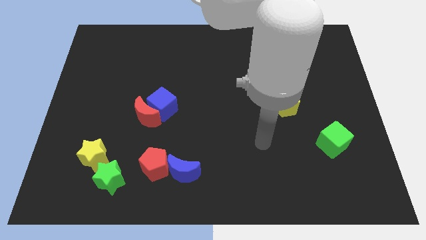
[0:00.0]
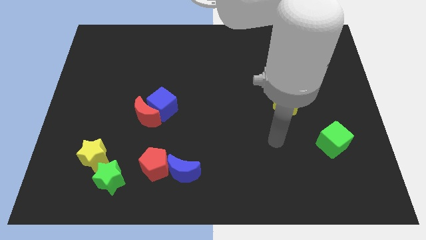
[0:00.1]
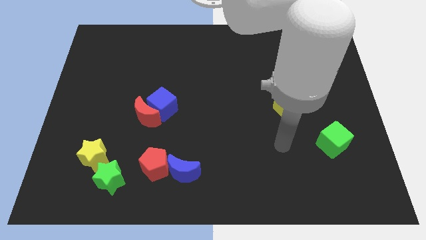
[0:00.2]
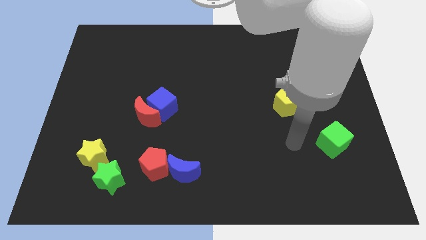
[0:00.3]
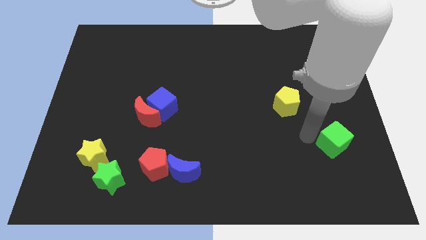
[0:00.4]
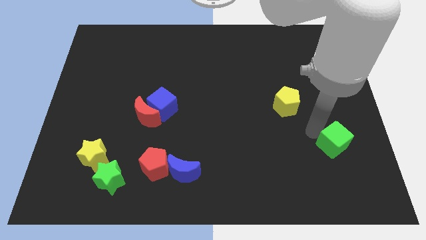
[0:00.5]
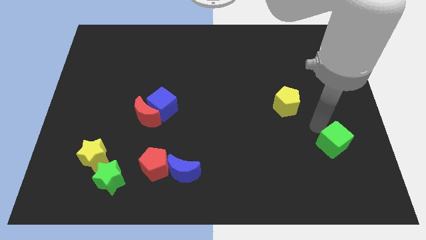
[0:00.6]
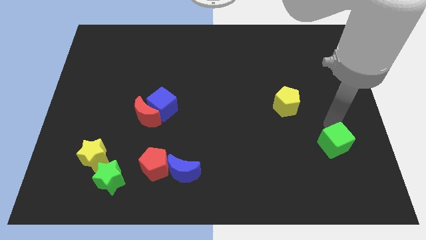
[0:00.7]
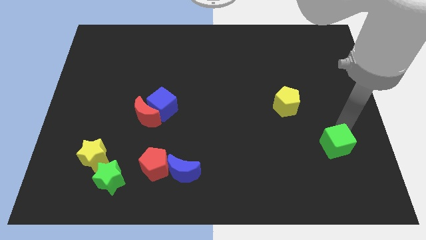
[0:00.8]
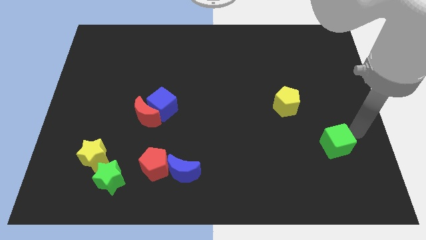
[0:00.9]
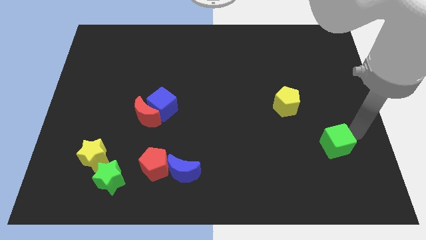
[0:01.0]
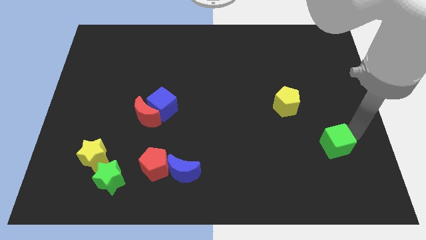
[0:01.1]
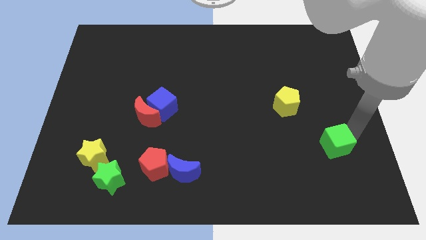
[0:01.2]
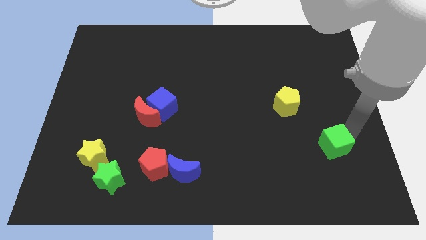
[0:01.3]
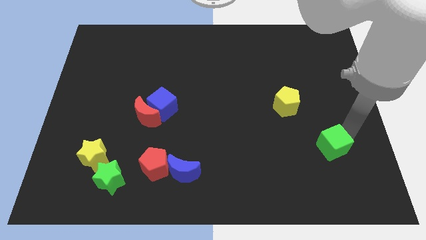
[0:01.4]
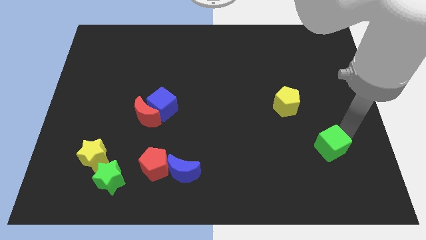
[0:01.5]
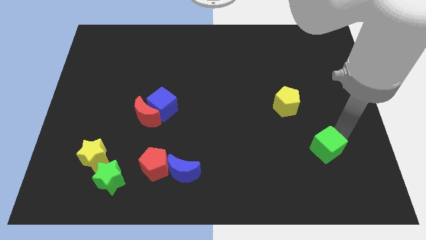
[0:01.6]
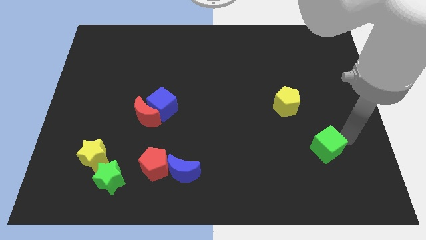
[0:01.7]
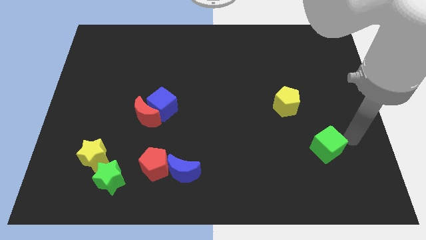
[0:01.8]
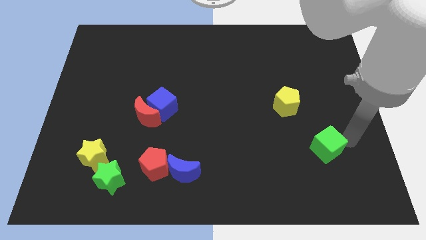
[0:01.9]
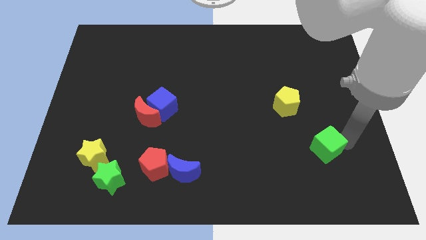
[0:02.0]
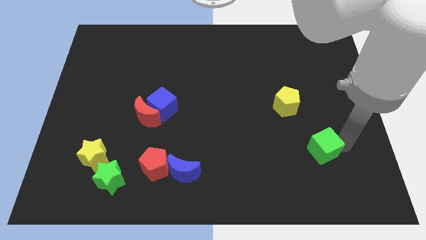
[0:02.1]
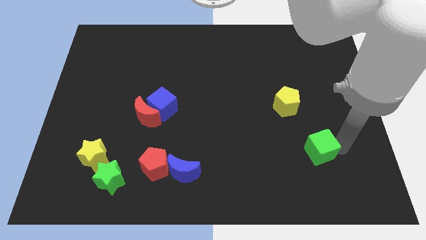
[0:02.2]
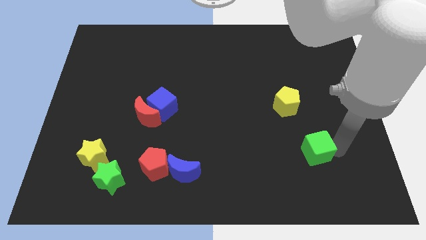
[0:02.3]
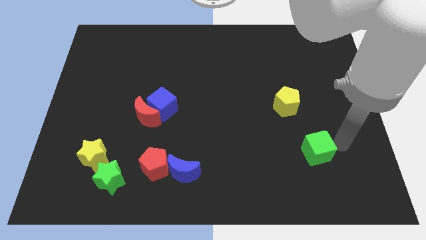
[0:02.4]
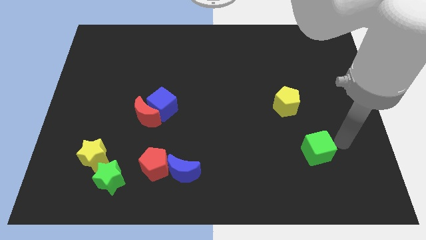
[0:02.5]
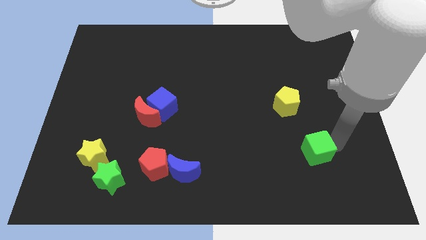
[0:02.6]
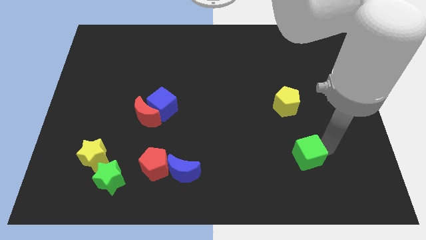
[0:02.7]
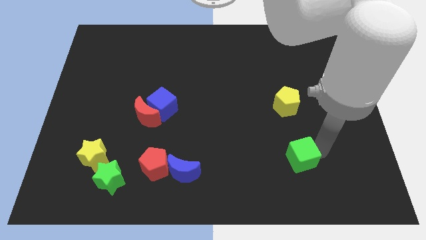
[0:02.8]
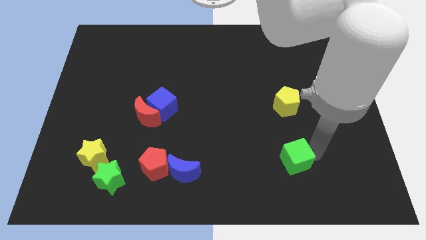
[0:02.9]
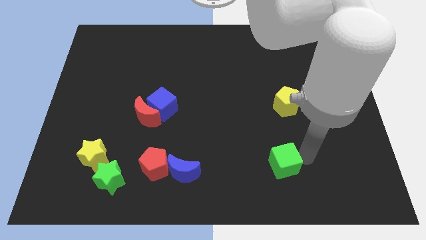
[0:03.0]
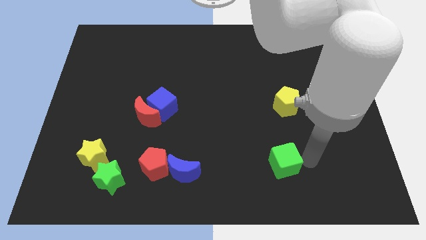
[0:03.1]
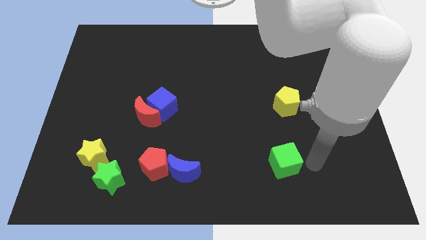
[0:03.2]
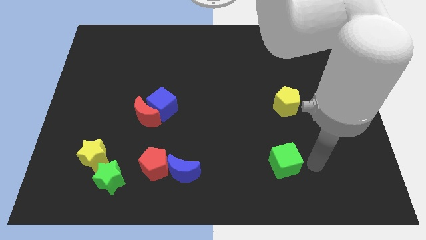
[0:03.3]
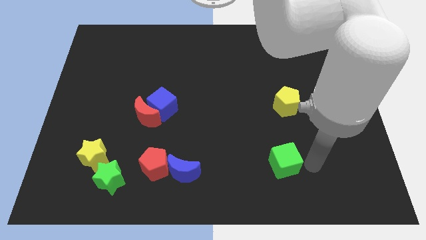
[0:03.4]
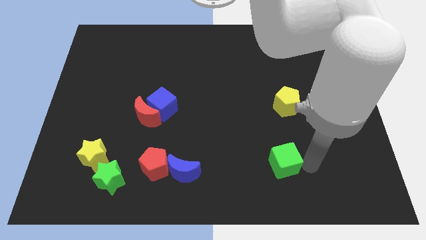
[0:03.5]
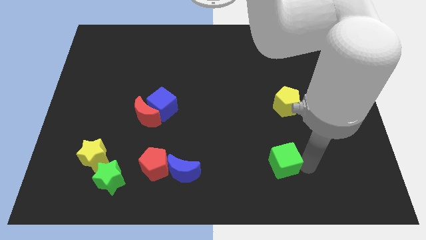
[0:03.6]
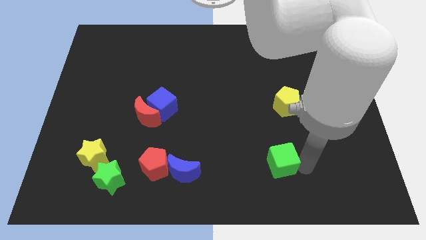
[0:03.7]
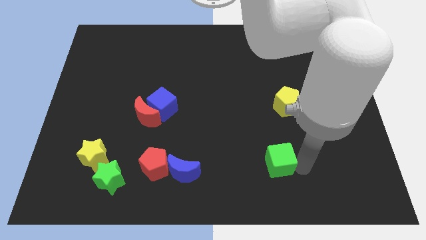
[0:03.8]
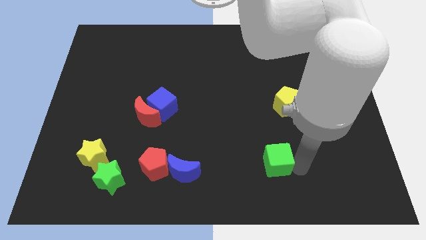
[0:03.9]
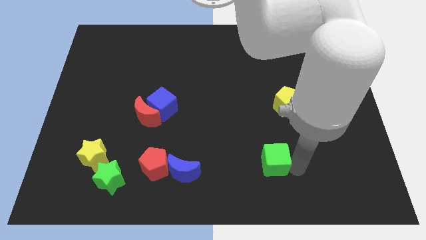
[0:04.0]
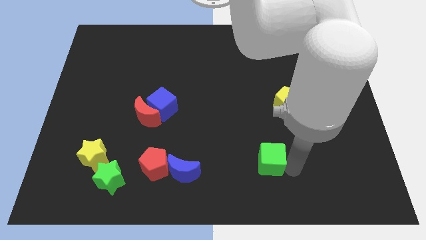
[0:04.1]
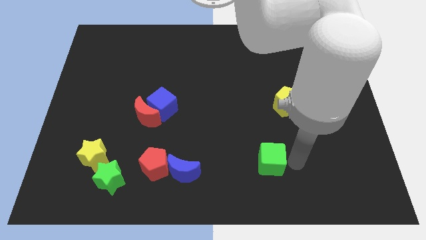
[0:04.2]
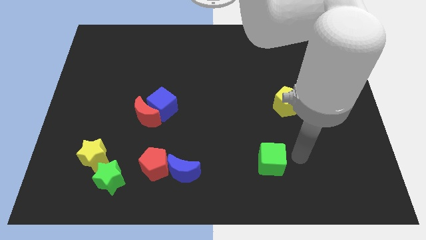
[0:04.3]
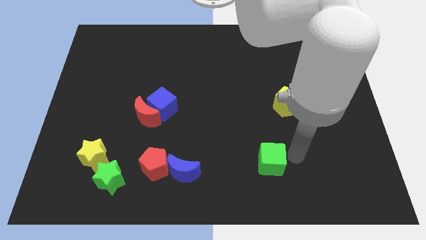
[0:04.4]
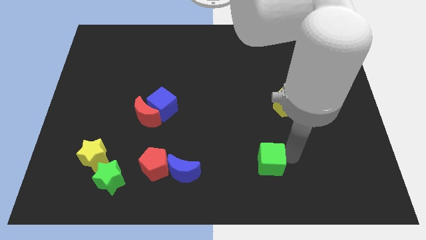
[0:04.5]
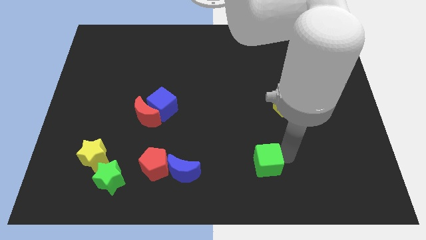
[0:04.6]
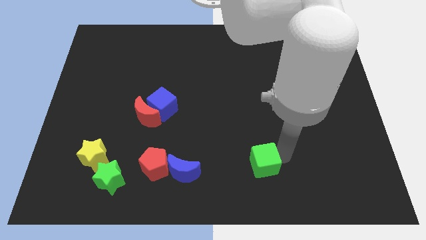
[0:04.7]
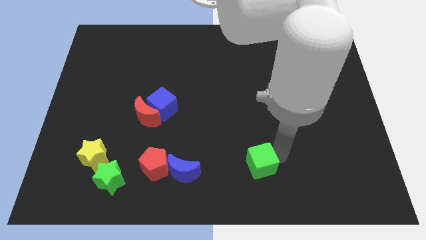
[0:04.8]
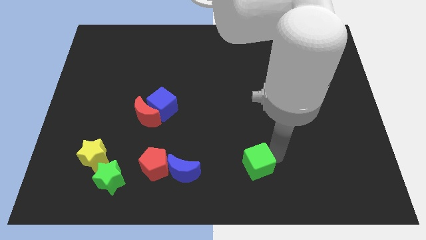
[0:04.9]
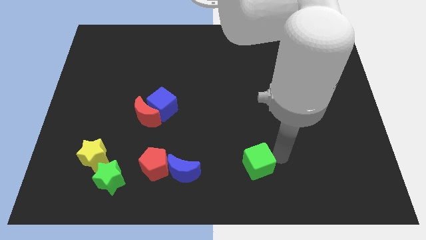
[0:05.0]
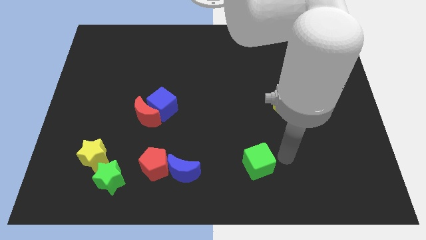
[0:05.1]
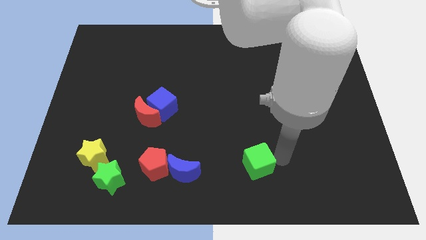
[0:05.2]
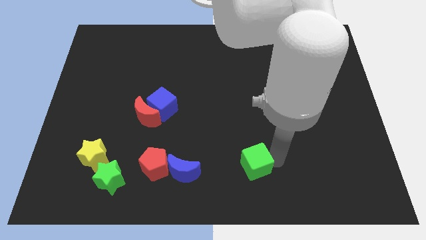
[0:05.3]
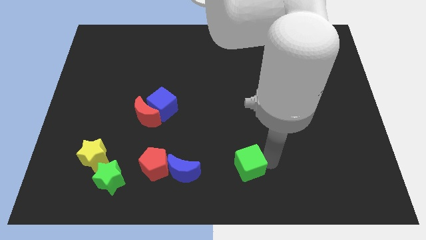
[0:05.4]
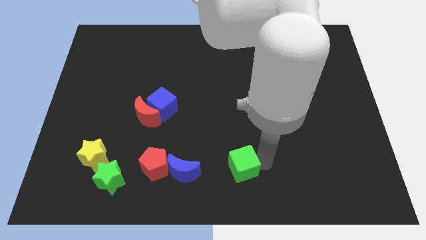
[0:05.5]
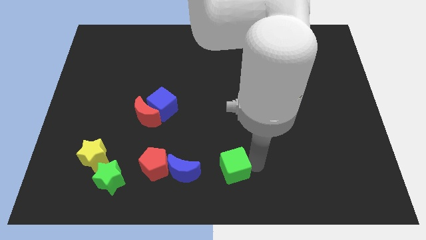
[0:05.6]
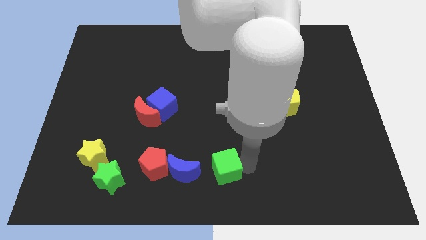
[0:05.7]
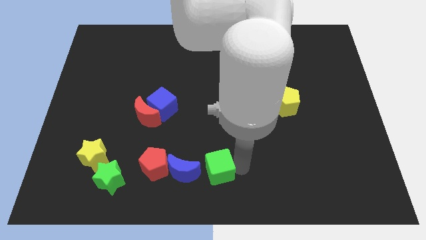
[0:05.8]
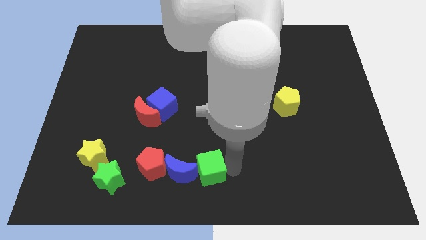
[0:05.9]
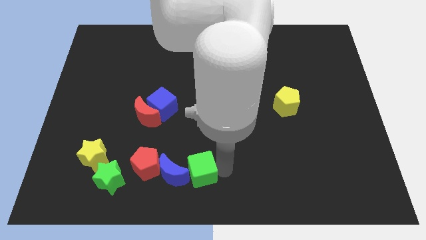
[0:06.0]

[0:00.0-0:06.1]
move the green cube to the blue moon
